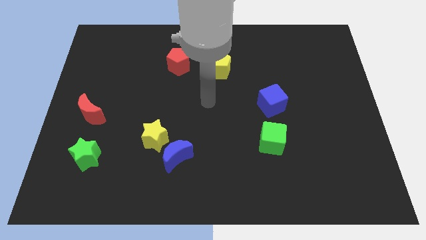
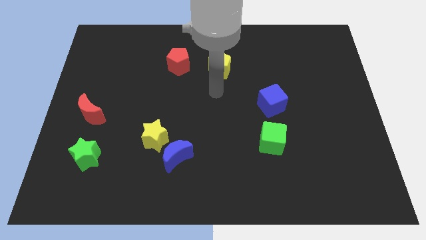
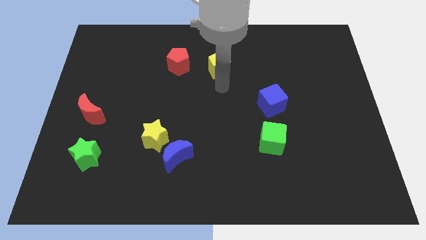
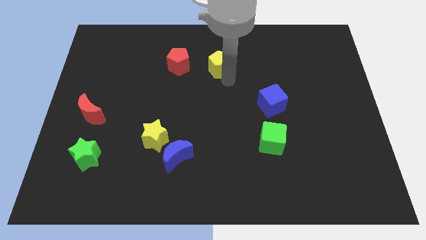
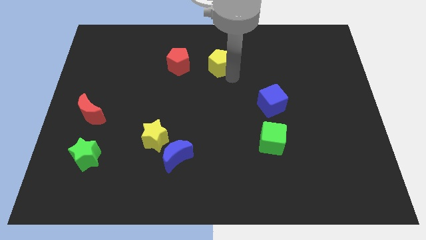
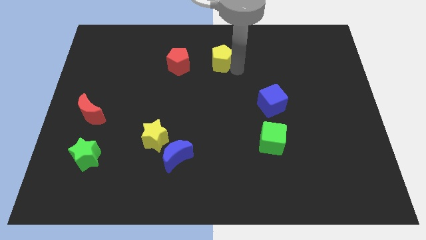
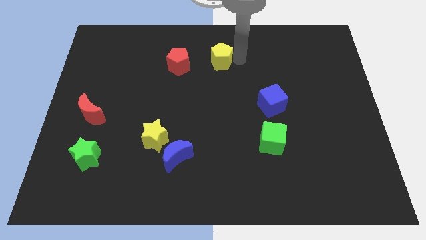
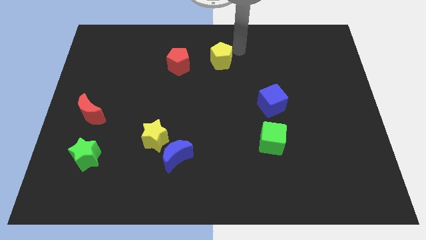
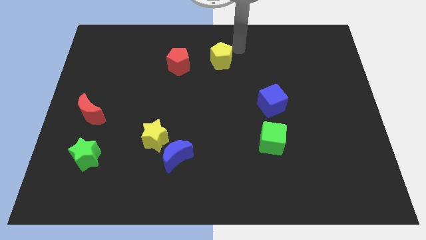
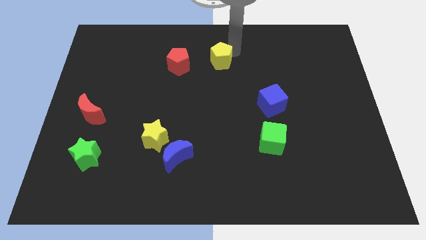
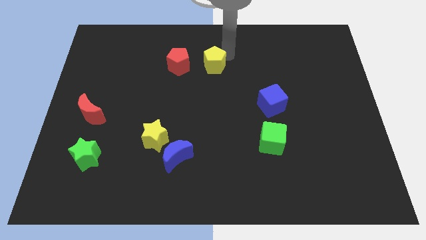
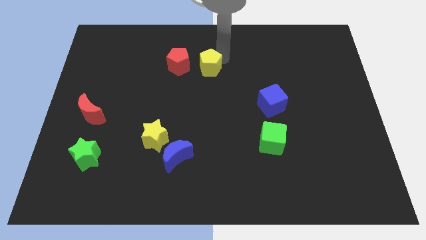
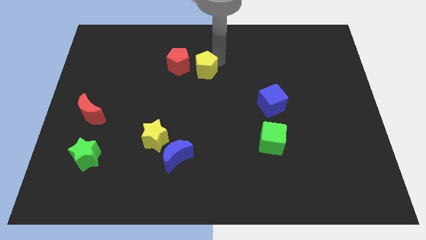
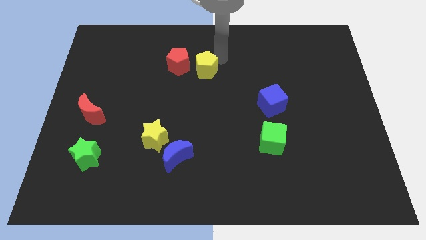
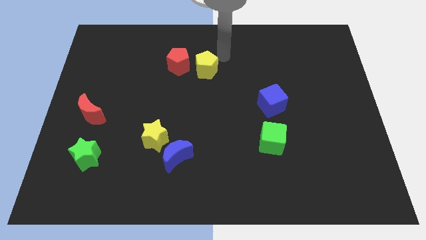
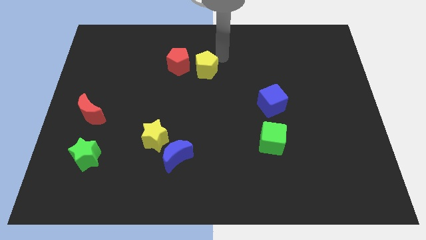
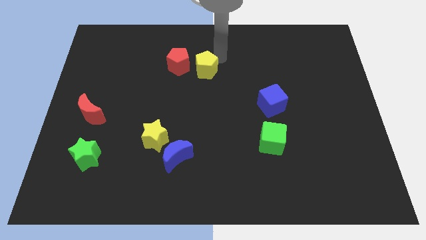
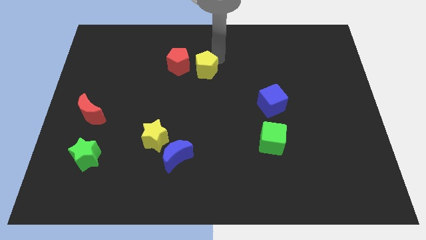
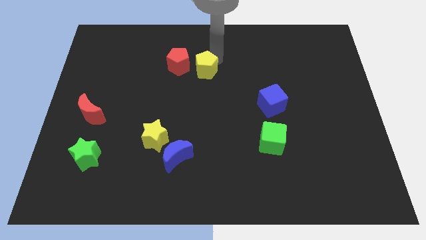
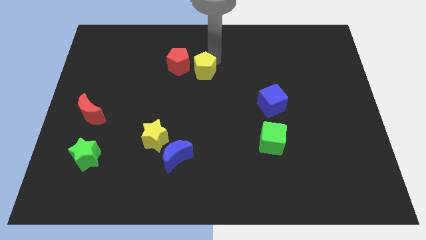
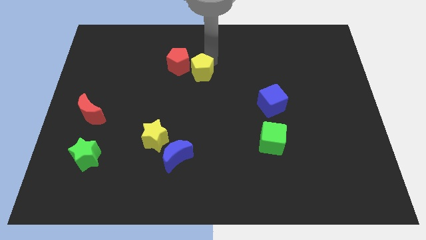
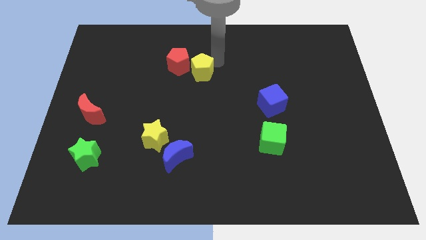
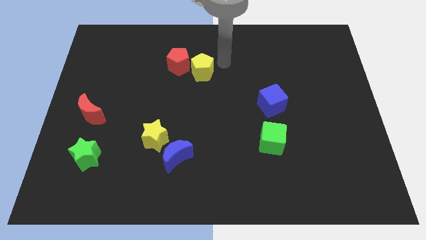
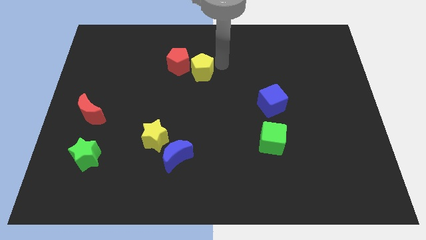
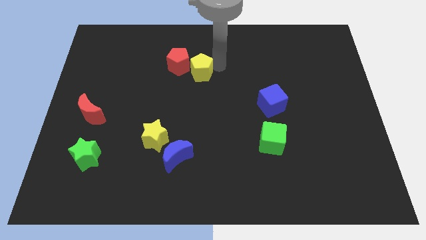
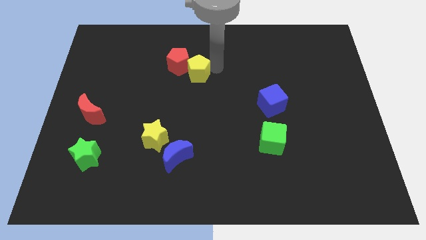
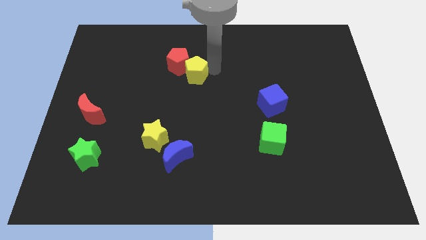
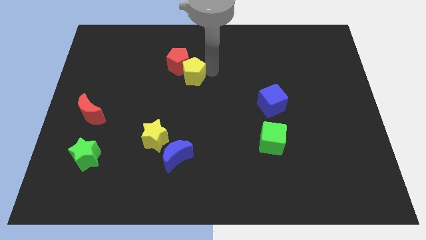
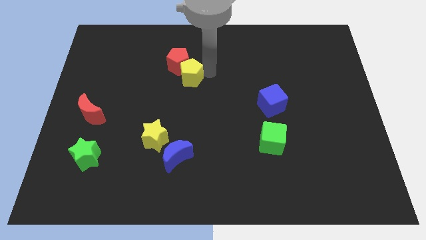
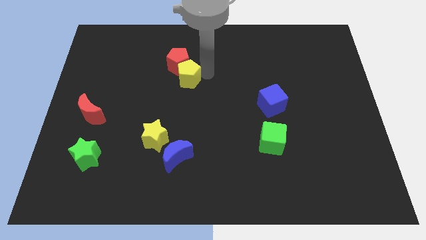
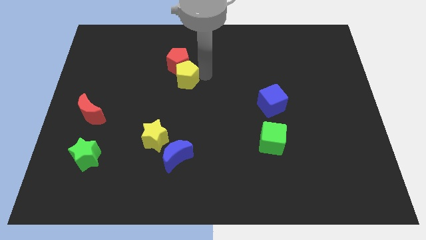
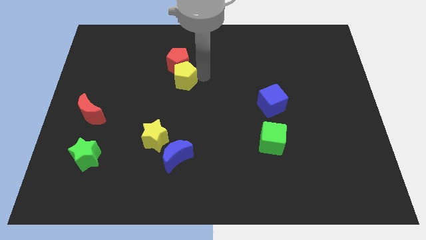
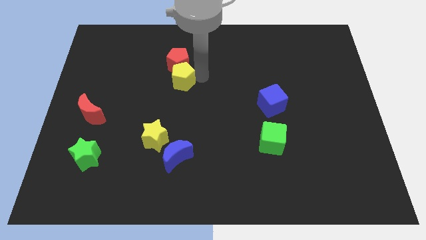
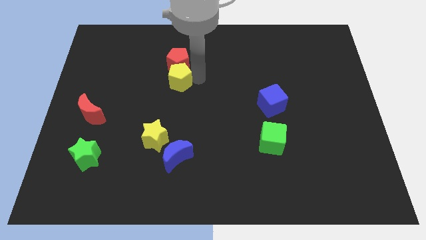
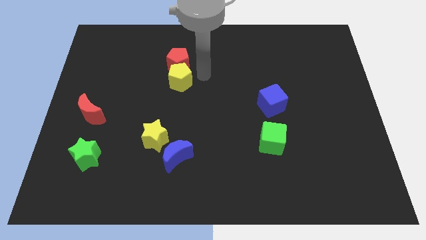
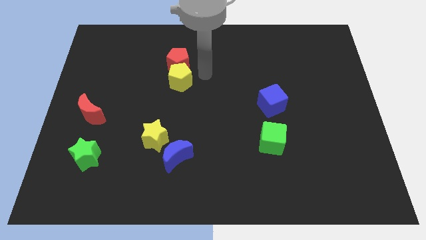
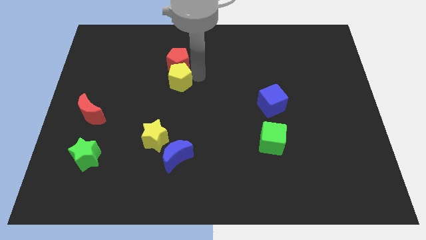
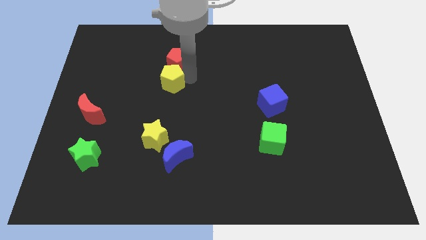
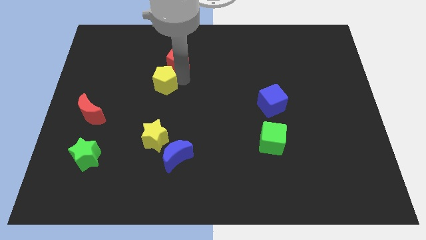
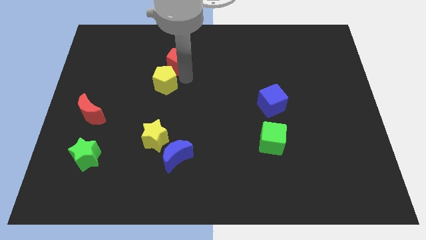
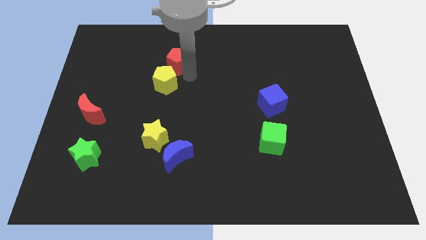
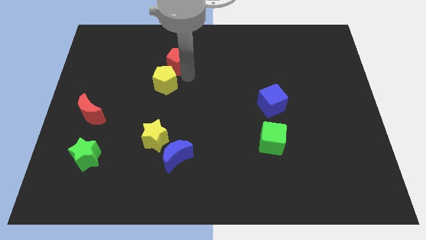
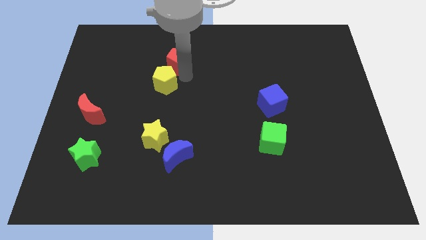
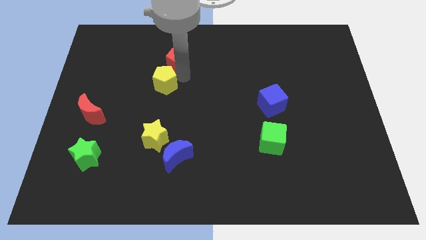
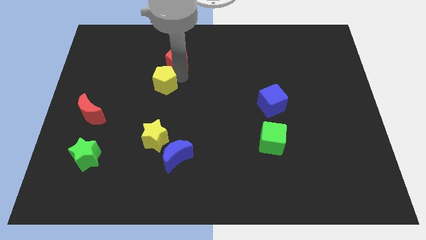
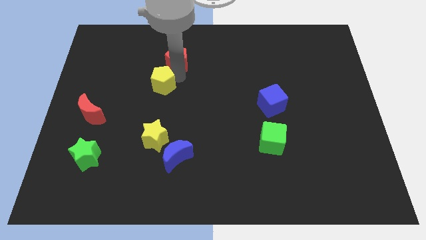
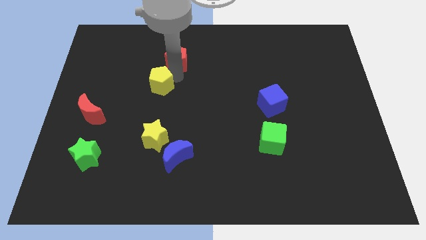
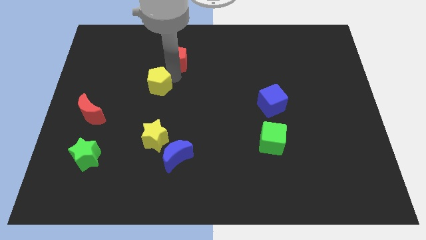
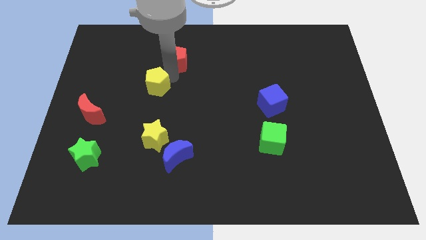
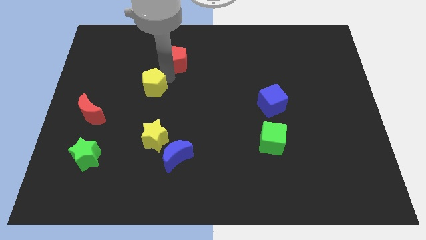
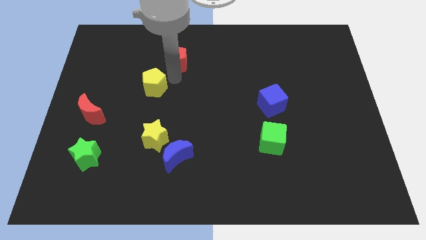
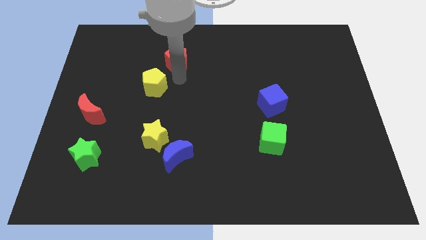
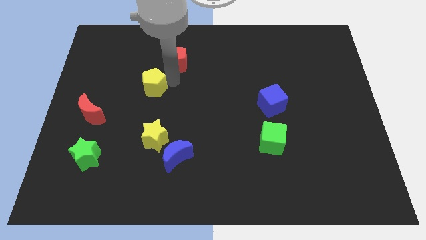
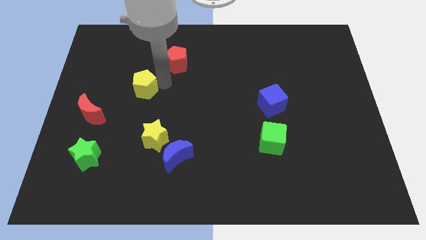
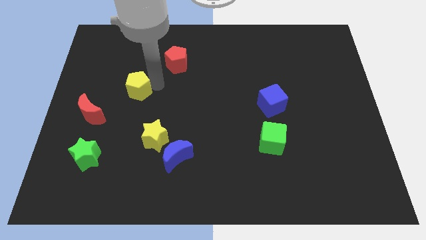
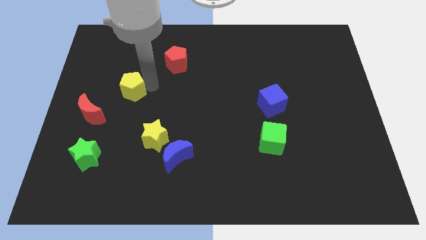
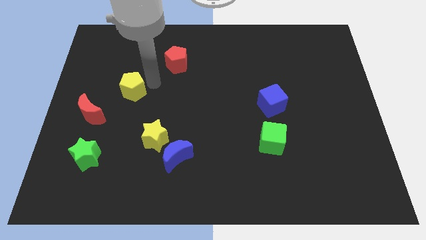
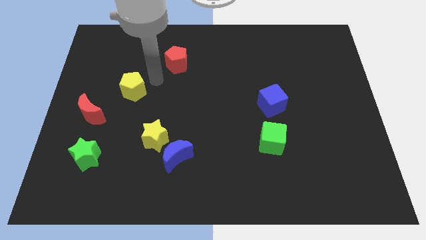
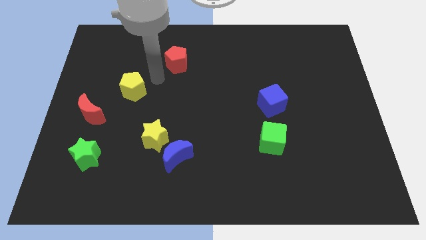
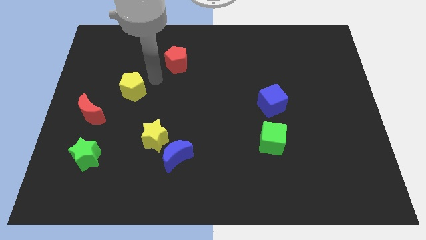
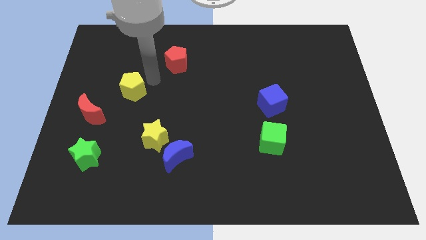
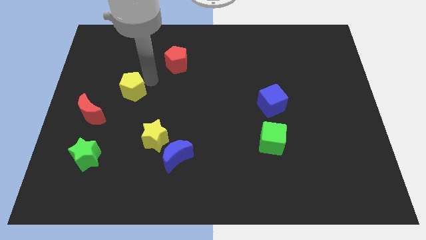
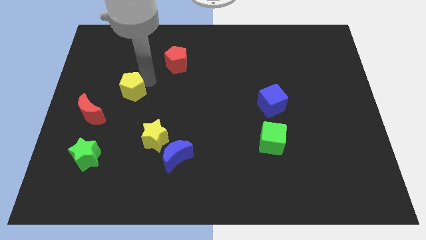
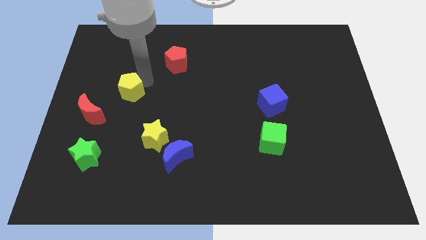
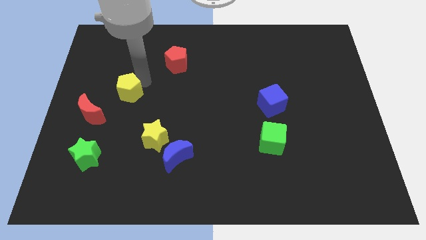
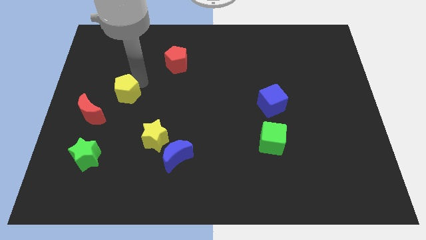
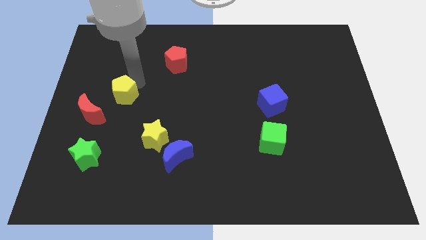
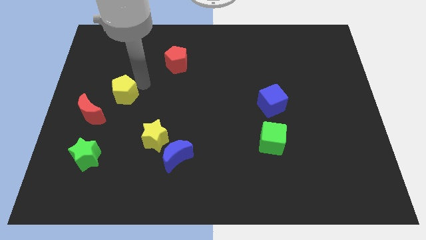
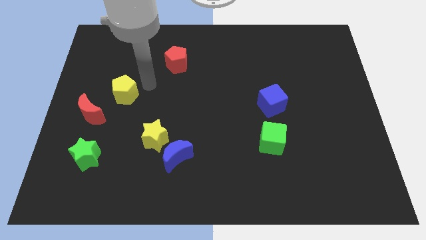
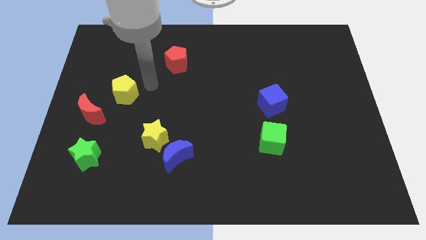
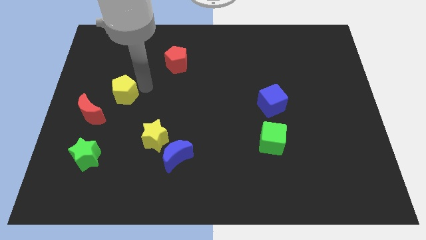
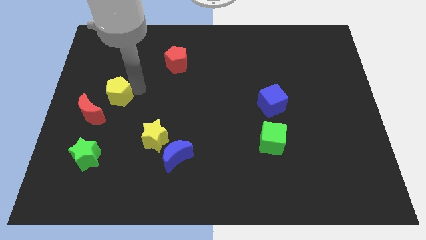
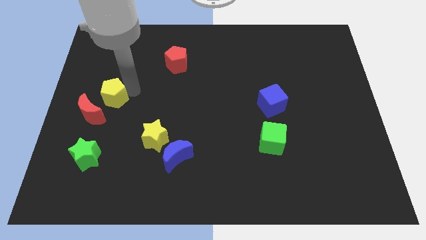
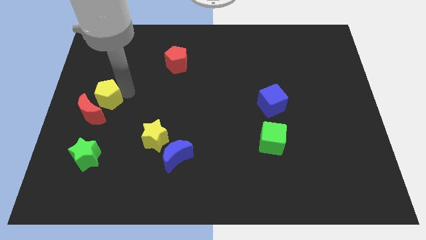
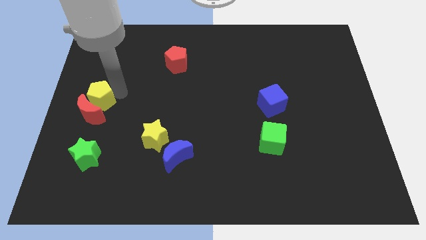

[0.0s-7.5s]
slide the yellow pentagon to the top of the green star

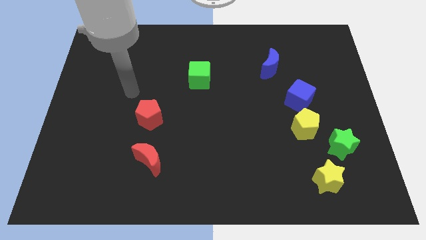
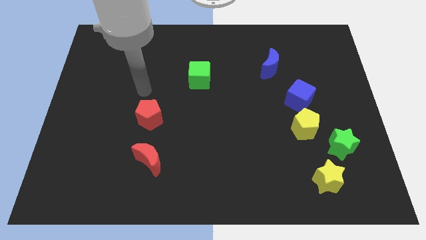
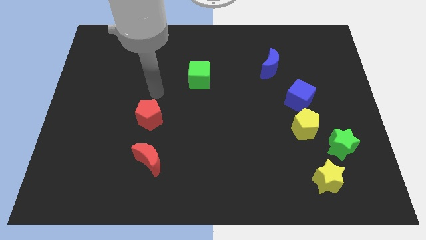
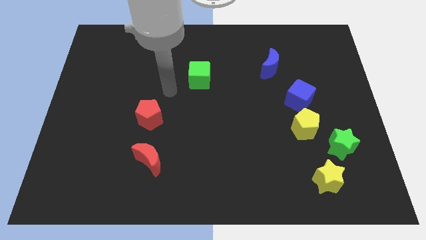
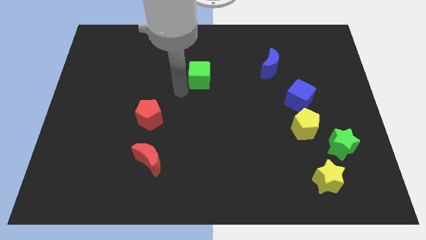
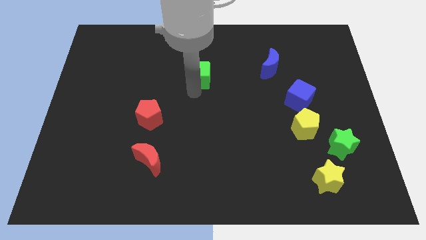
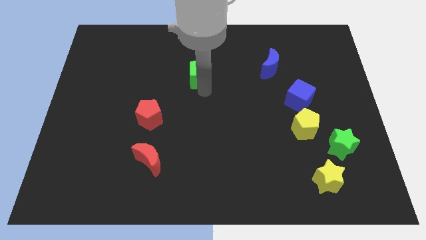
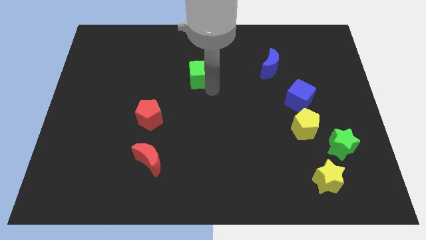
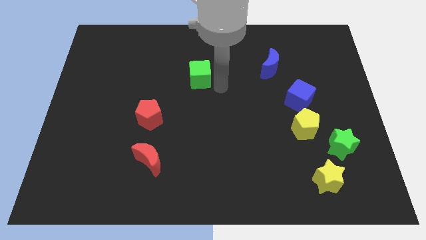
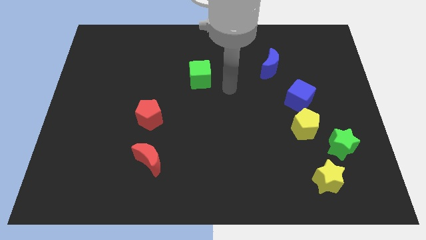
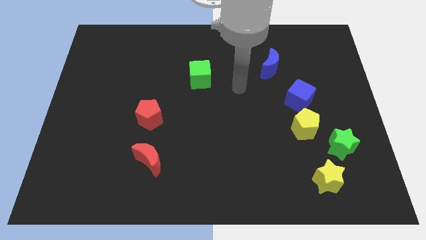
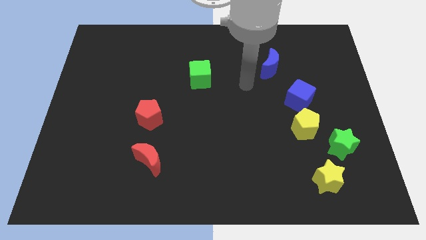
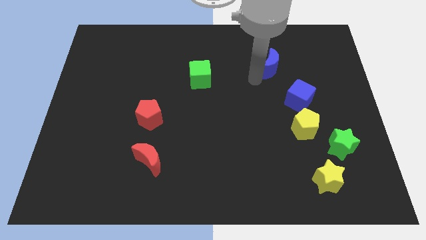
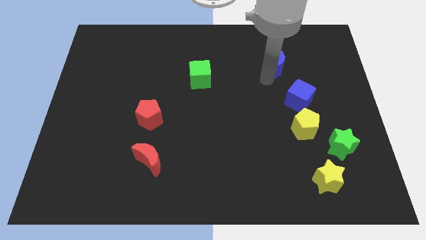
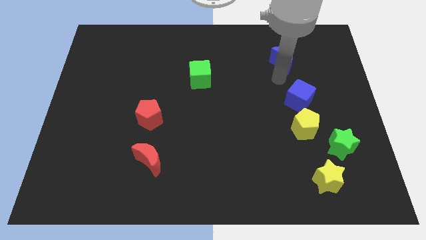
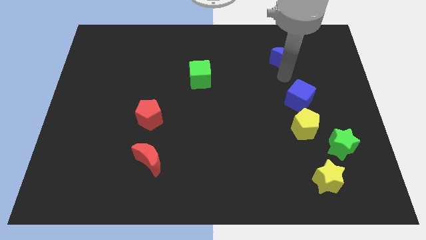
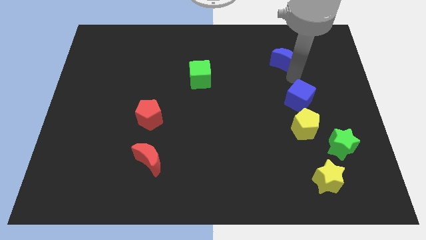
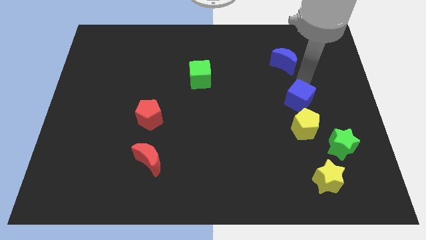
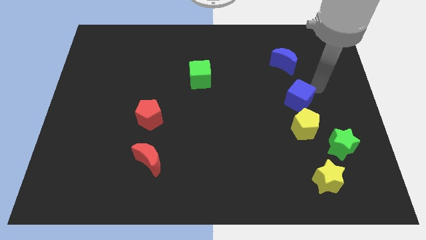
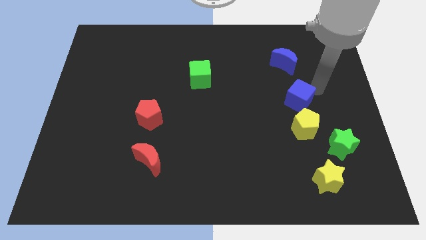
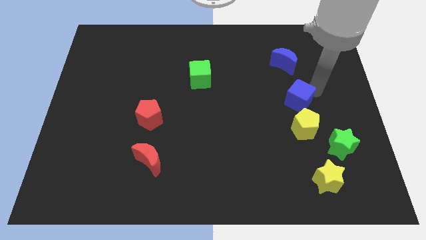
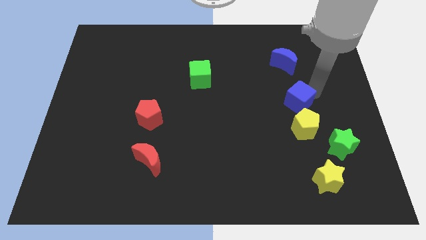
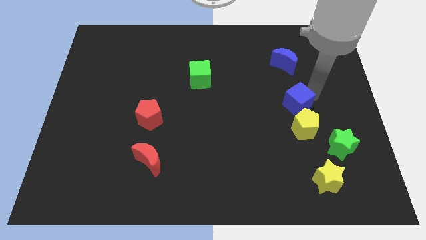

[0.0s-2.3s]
push the blue cube diagonally up and to the left of the yellow pentagon
